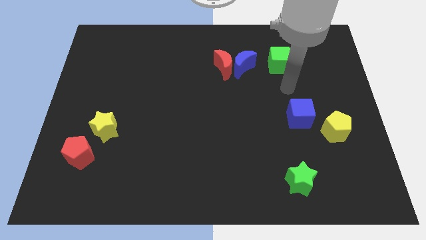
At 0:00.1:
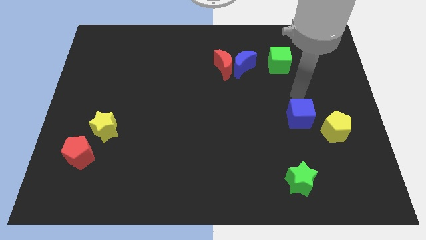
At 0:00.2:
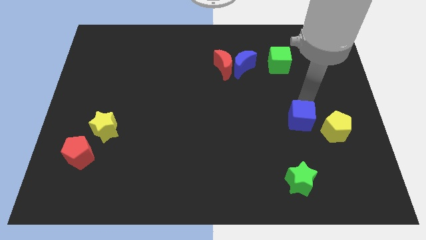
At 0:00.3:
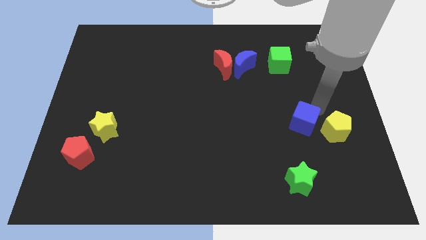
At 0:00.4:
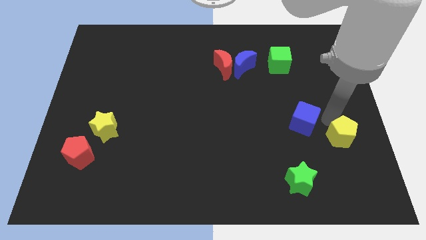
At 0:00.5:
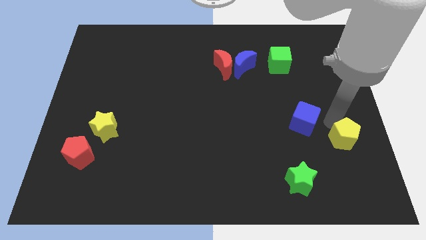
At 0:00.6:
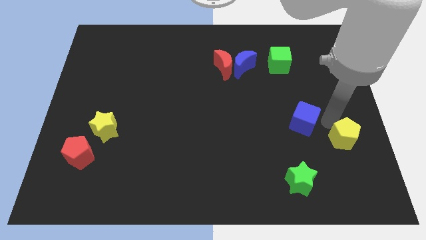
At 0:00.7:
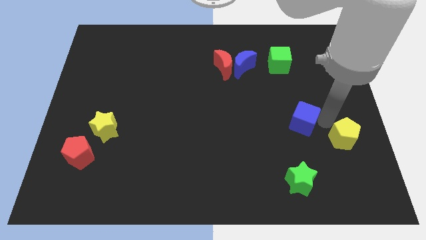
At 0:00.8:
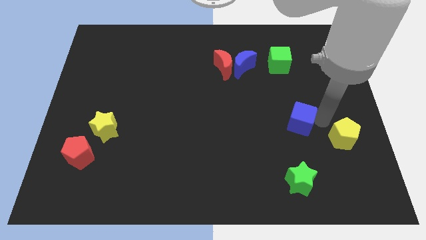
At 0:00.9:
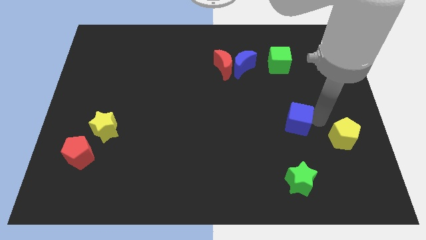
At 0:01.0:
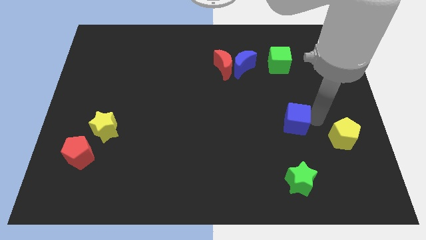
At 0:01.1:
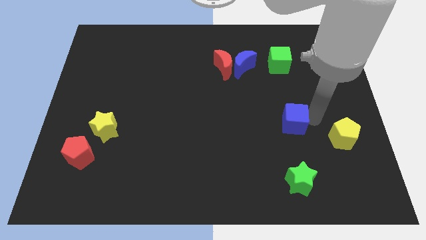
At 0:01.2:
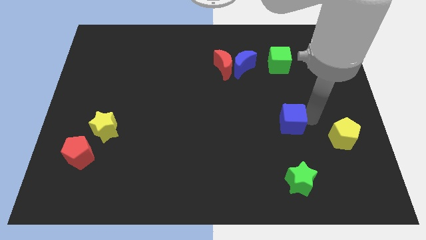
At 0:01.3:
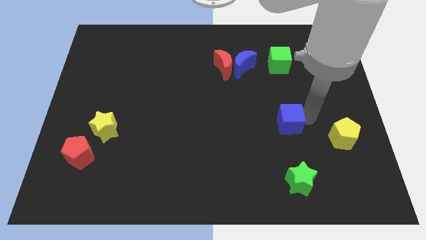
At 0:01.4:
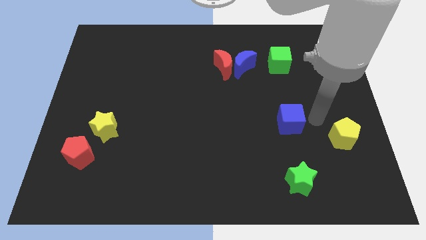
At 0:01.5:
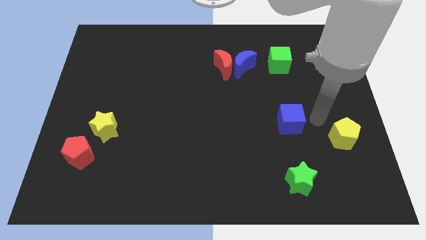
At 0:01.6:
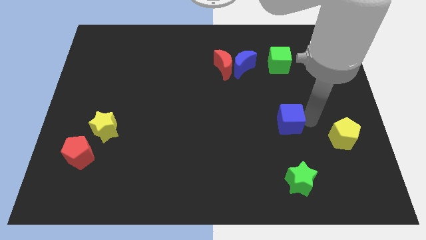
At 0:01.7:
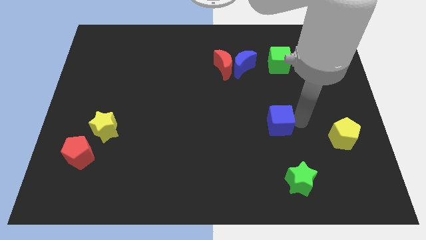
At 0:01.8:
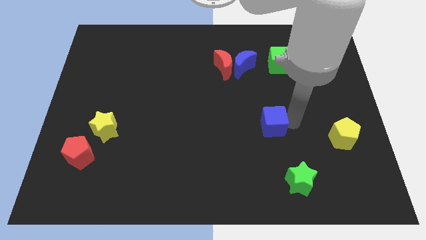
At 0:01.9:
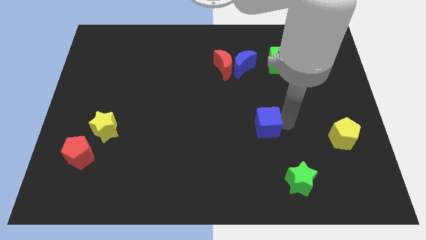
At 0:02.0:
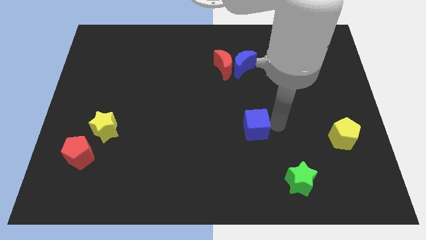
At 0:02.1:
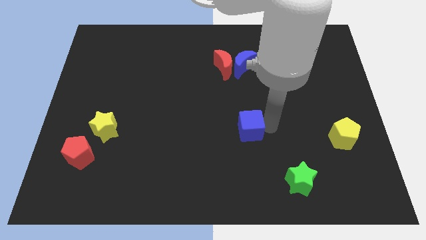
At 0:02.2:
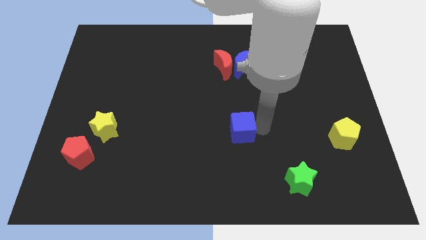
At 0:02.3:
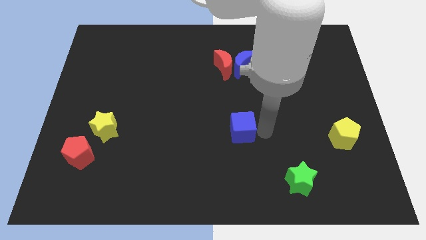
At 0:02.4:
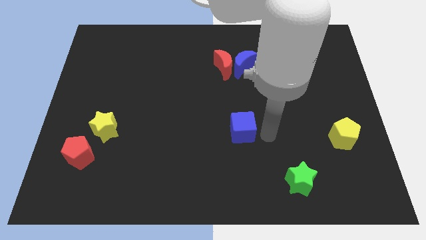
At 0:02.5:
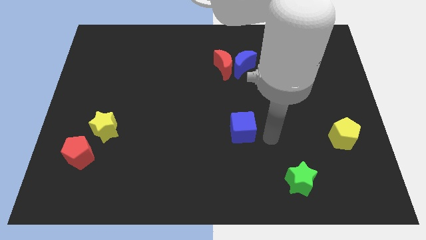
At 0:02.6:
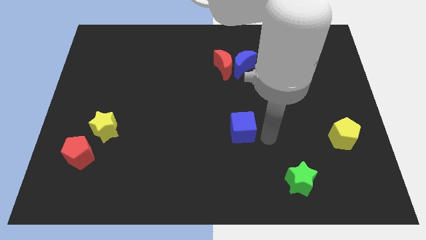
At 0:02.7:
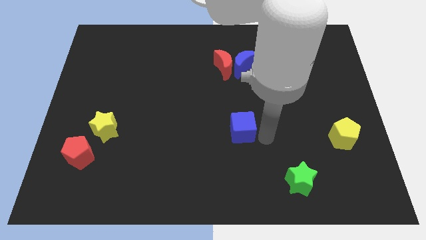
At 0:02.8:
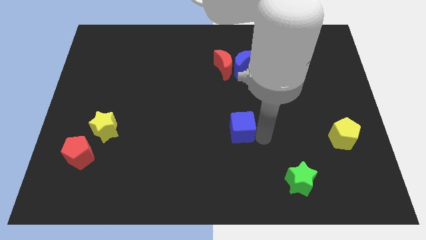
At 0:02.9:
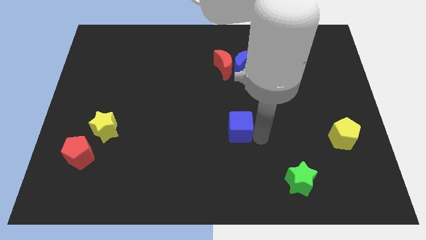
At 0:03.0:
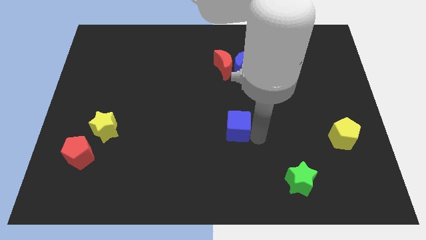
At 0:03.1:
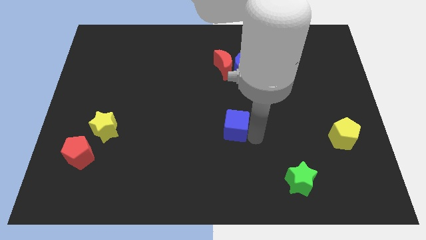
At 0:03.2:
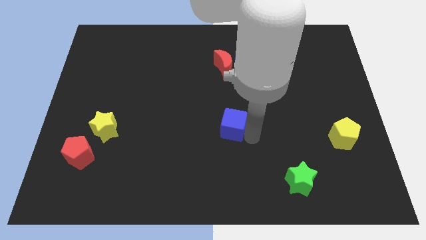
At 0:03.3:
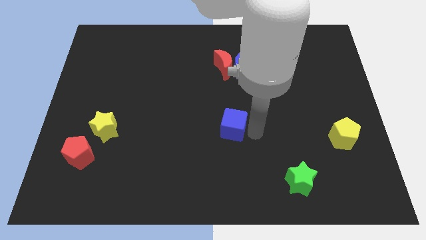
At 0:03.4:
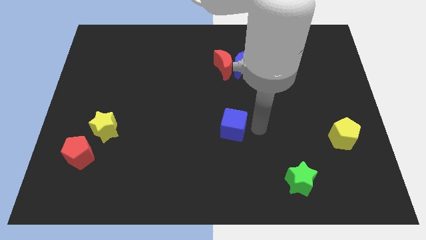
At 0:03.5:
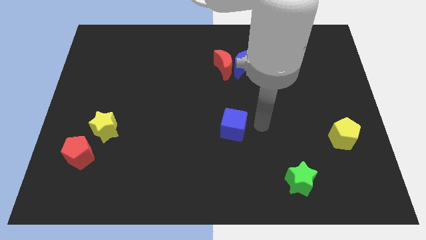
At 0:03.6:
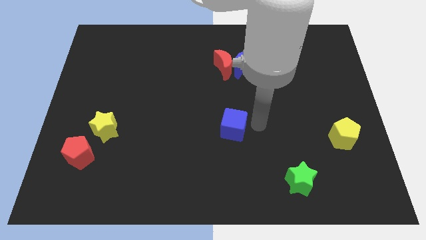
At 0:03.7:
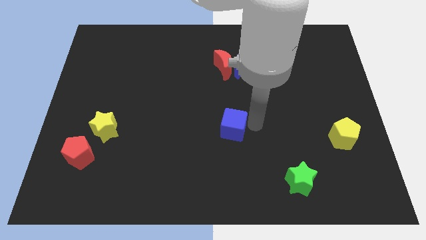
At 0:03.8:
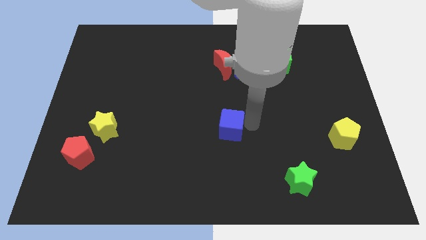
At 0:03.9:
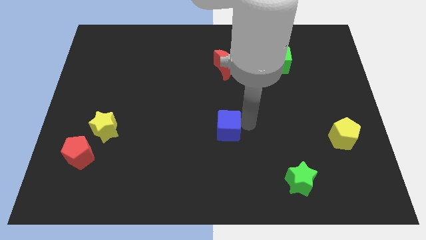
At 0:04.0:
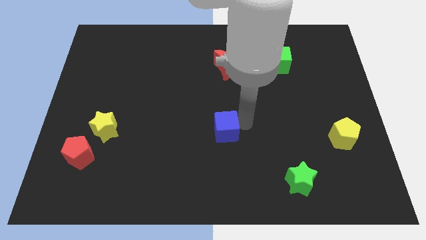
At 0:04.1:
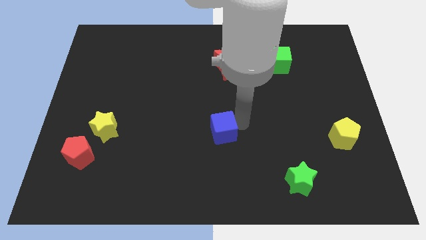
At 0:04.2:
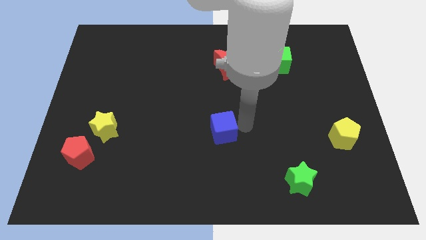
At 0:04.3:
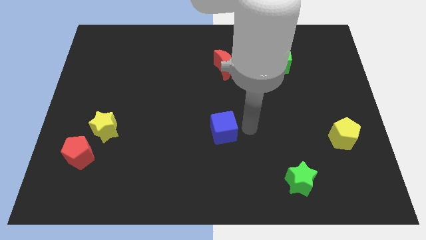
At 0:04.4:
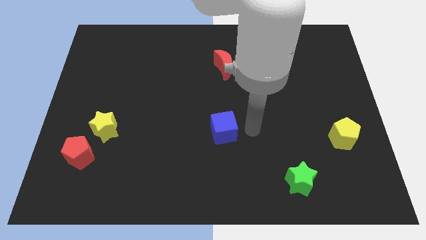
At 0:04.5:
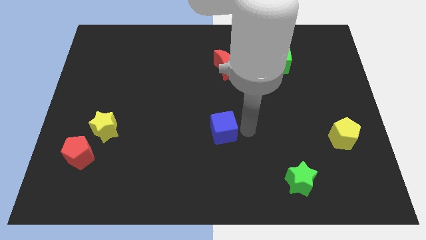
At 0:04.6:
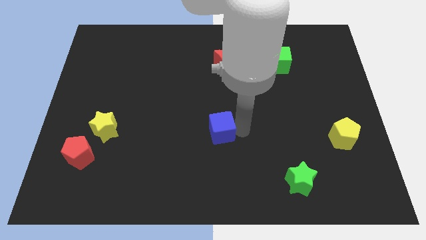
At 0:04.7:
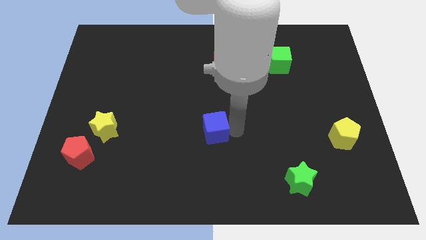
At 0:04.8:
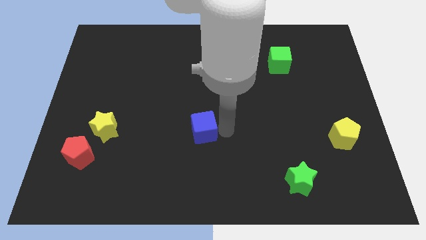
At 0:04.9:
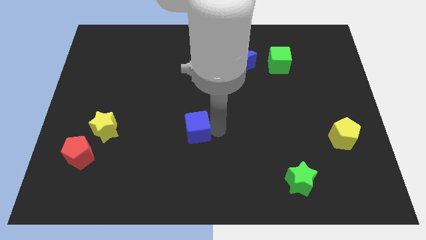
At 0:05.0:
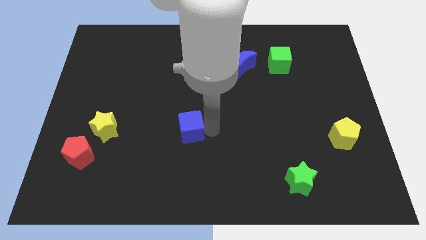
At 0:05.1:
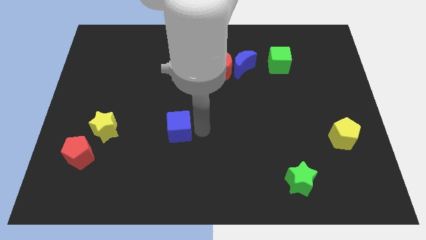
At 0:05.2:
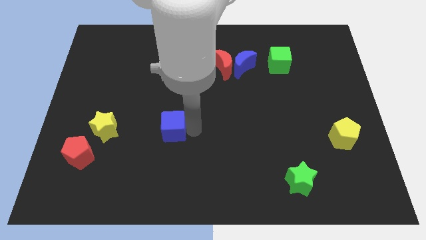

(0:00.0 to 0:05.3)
put the blue cube right of the yellow star

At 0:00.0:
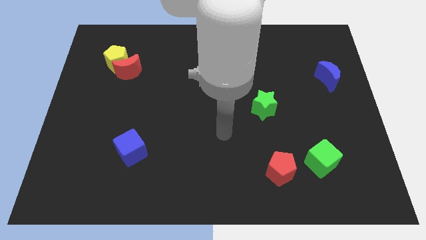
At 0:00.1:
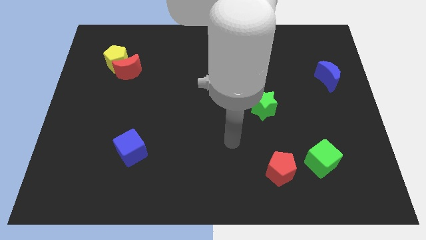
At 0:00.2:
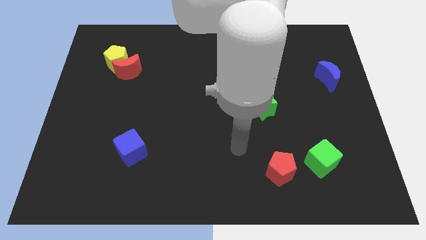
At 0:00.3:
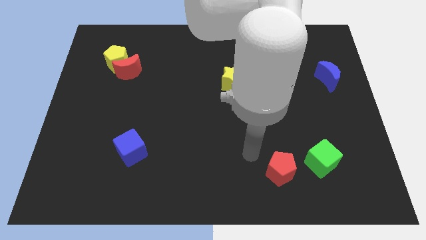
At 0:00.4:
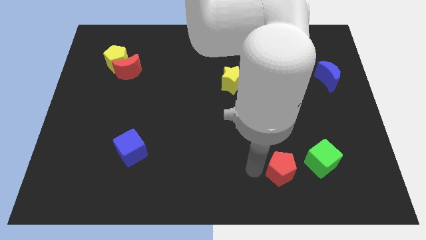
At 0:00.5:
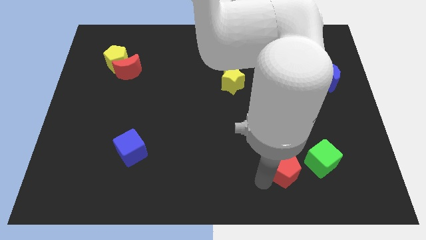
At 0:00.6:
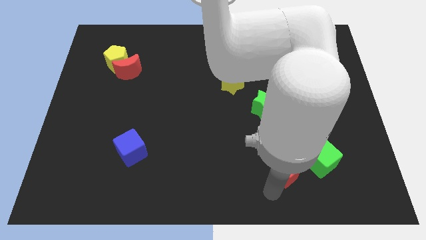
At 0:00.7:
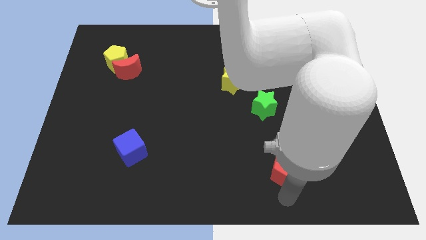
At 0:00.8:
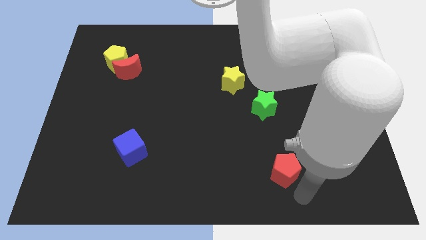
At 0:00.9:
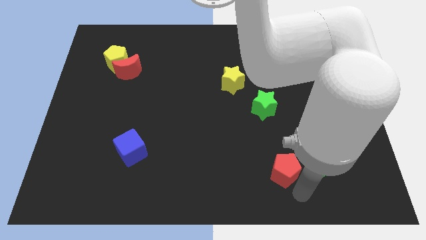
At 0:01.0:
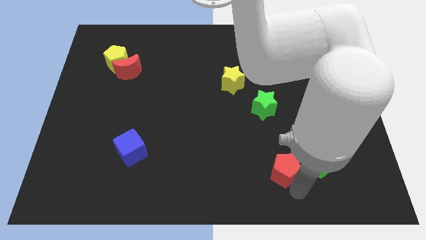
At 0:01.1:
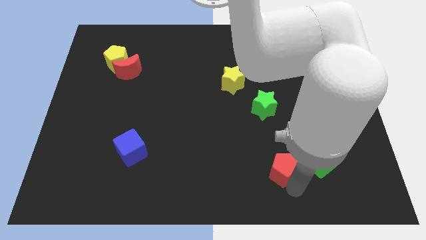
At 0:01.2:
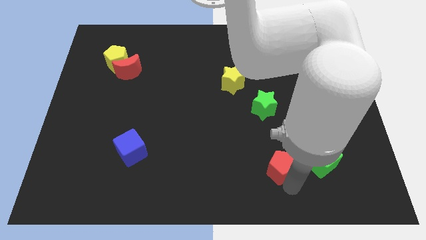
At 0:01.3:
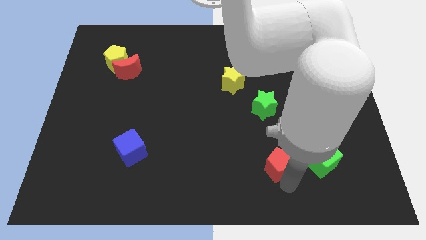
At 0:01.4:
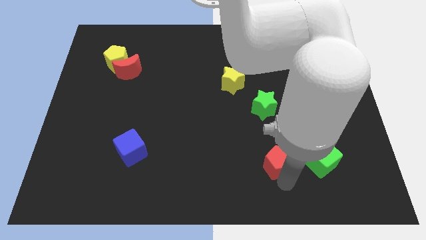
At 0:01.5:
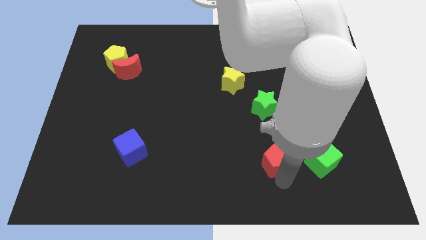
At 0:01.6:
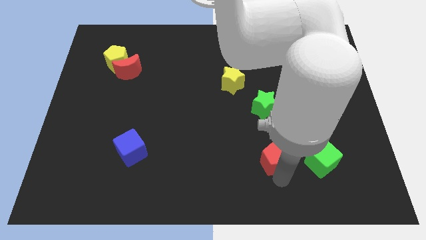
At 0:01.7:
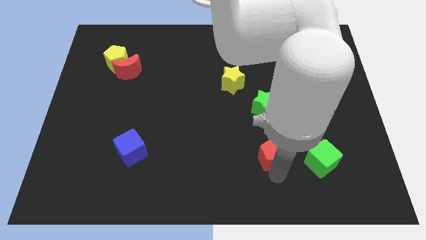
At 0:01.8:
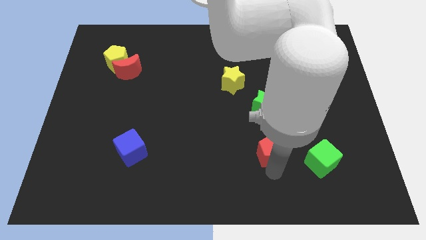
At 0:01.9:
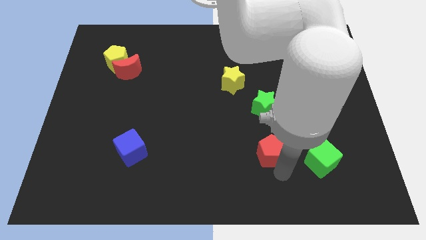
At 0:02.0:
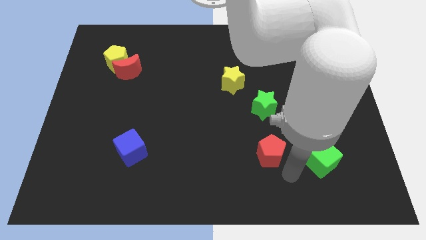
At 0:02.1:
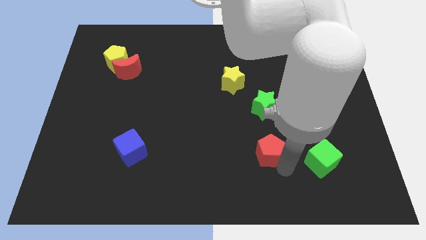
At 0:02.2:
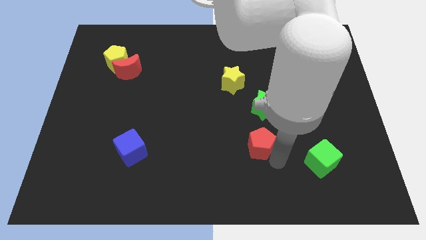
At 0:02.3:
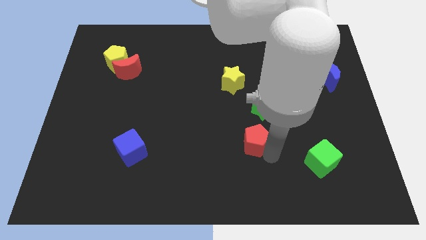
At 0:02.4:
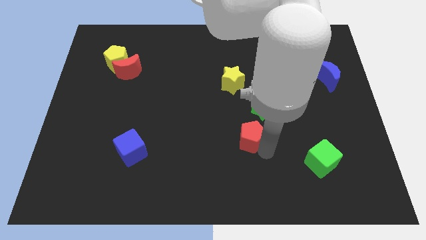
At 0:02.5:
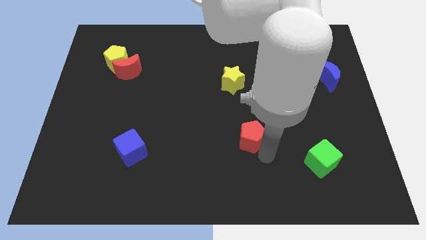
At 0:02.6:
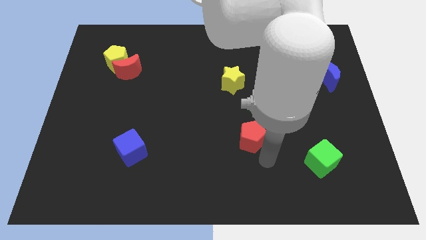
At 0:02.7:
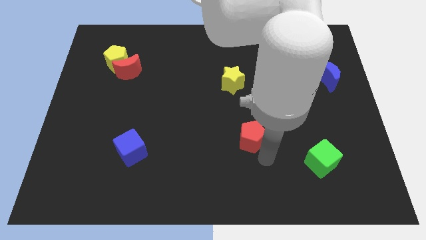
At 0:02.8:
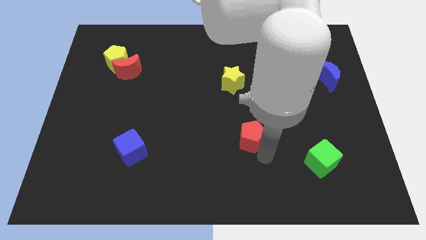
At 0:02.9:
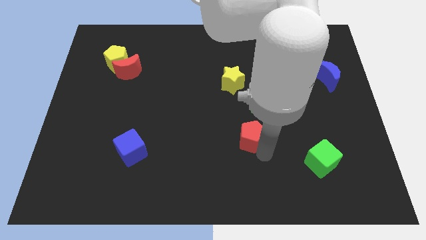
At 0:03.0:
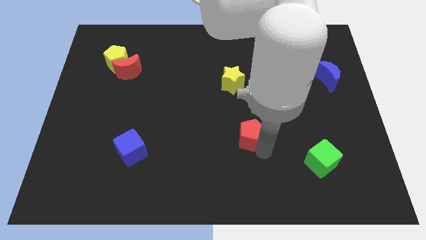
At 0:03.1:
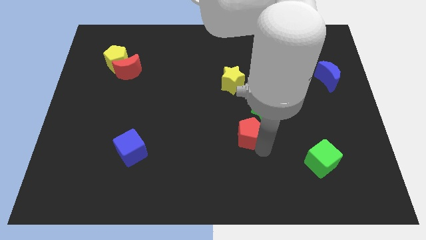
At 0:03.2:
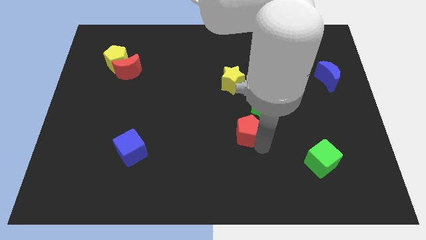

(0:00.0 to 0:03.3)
push the red pentagon to the bottom side of the yellow star
